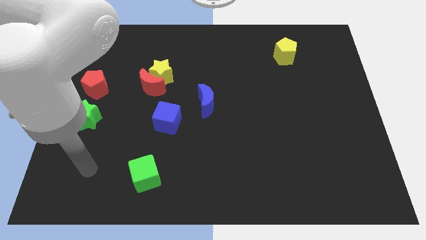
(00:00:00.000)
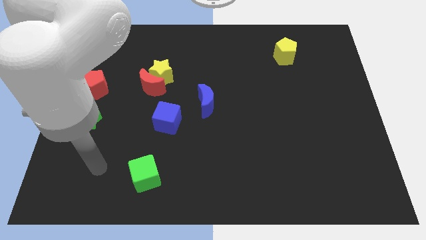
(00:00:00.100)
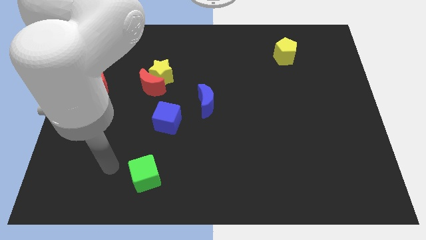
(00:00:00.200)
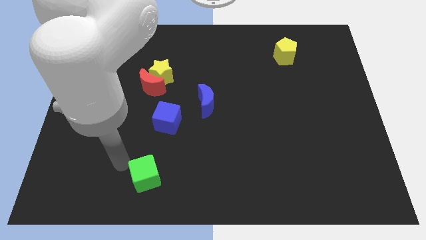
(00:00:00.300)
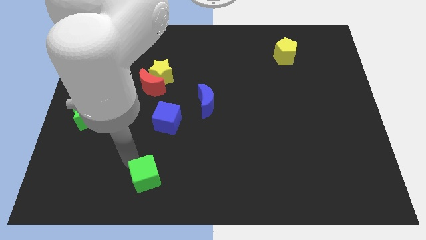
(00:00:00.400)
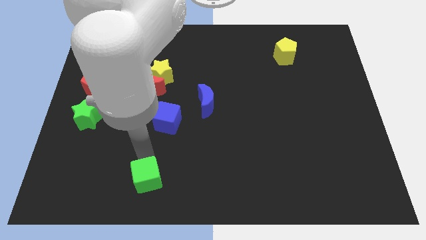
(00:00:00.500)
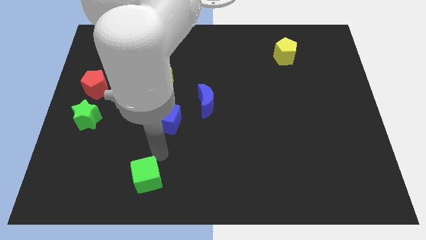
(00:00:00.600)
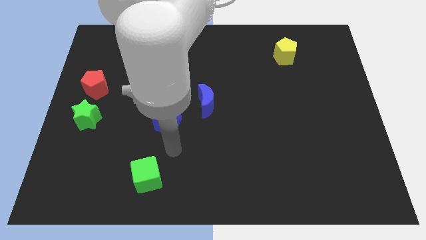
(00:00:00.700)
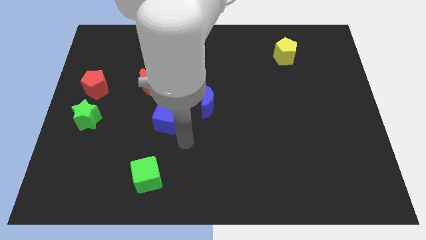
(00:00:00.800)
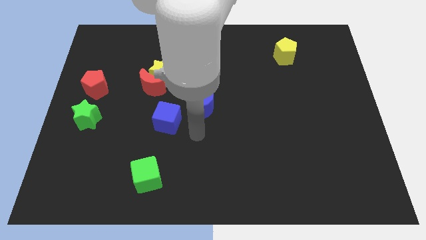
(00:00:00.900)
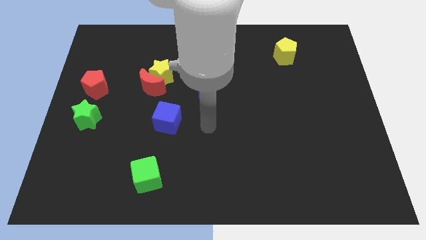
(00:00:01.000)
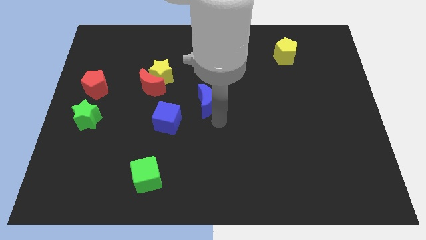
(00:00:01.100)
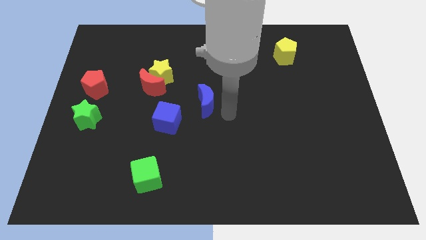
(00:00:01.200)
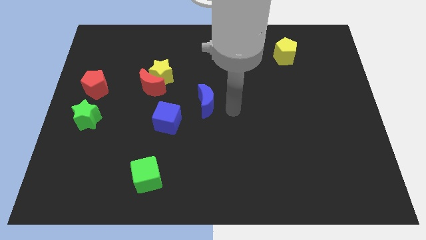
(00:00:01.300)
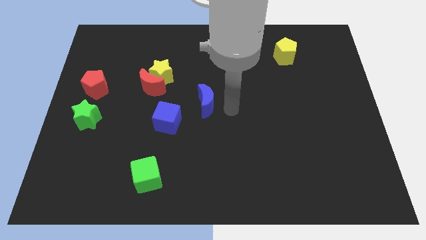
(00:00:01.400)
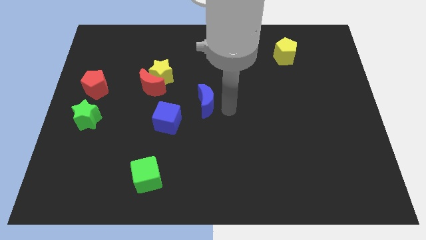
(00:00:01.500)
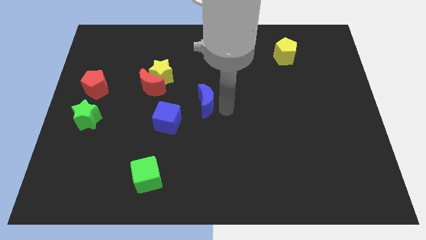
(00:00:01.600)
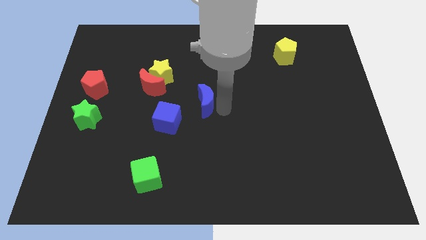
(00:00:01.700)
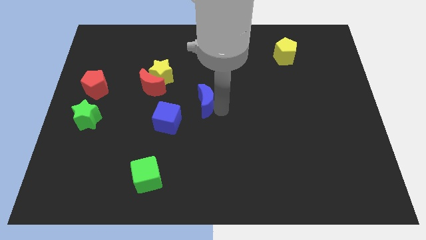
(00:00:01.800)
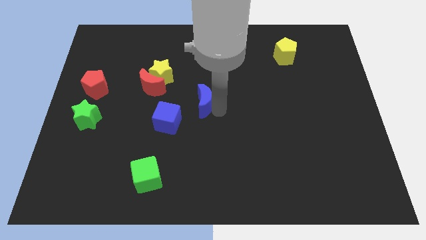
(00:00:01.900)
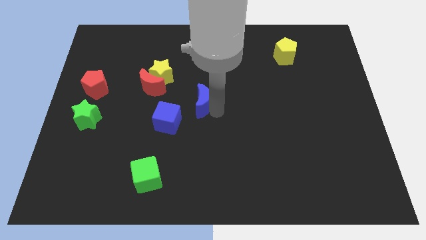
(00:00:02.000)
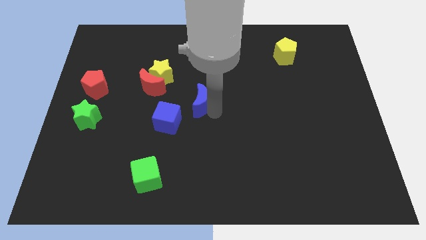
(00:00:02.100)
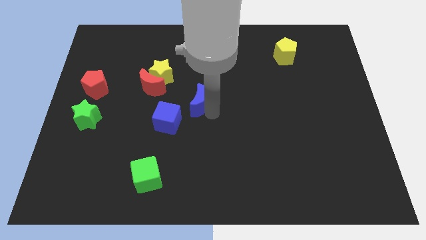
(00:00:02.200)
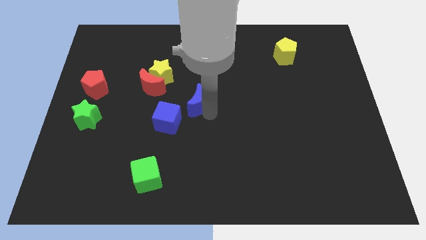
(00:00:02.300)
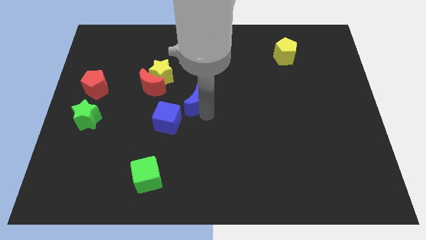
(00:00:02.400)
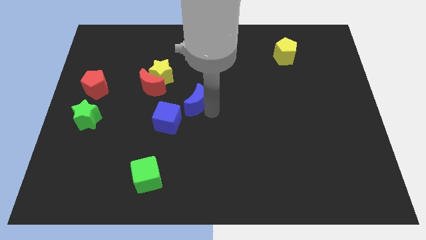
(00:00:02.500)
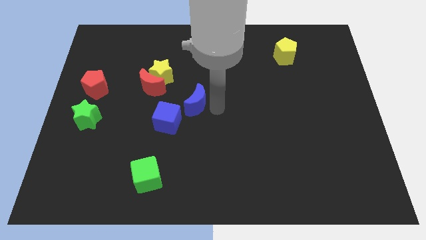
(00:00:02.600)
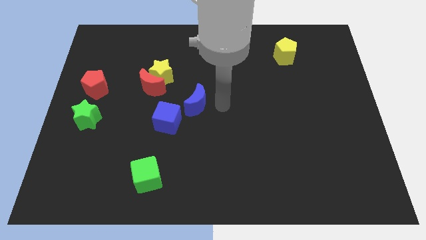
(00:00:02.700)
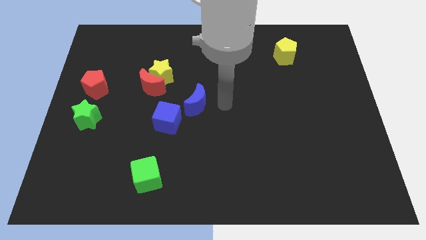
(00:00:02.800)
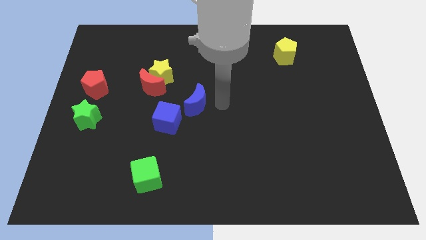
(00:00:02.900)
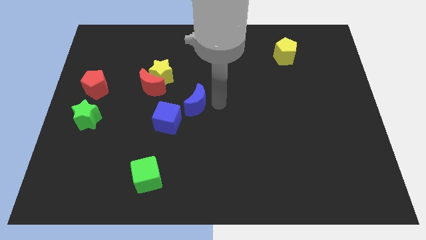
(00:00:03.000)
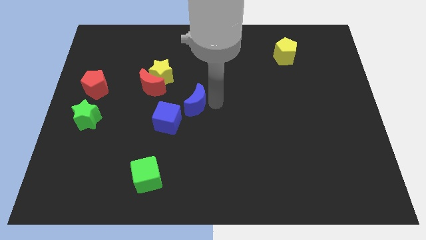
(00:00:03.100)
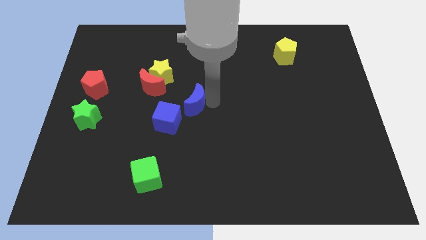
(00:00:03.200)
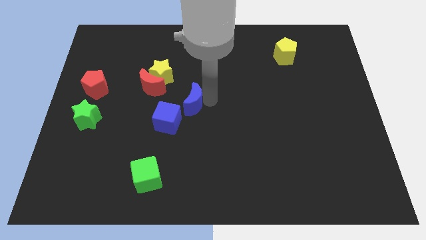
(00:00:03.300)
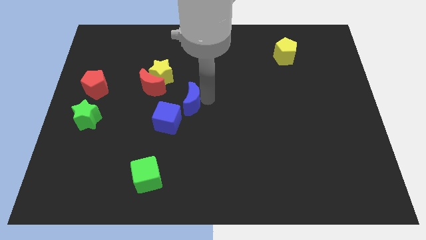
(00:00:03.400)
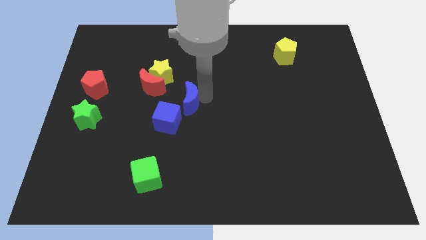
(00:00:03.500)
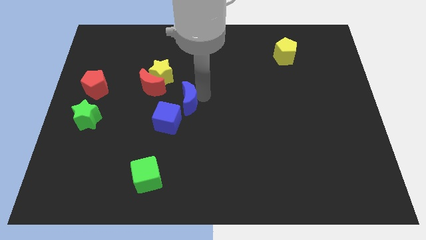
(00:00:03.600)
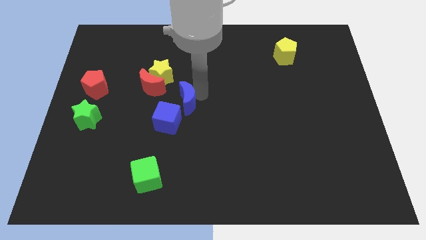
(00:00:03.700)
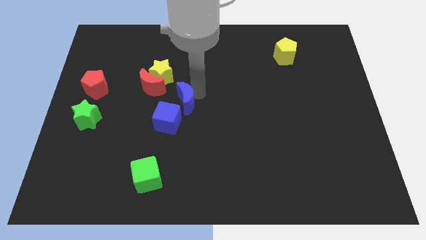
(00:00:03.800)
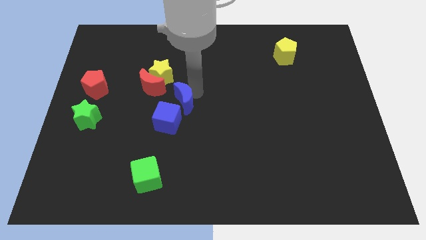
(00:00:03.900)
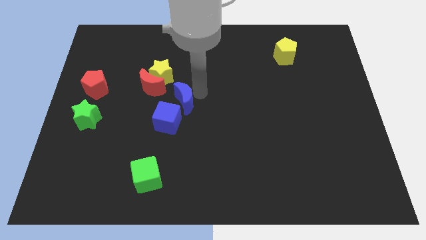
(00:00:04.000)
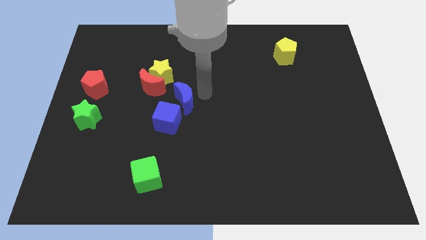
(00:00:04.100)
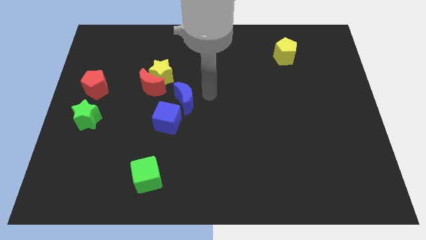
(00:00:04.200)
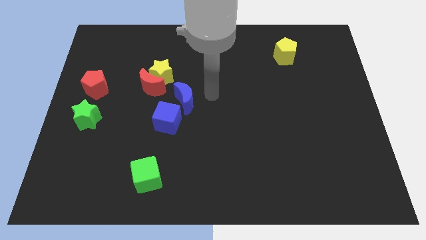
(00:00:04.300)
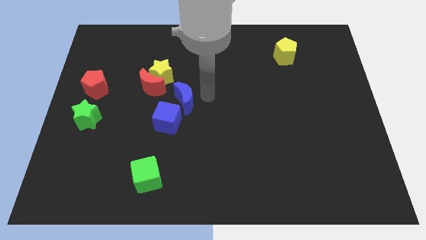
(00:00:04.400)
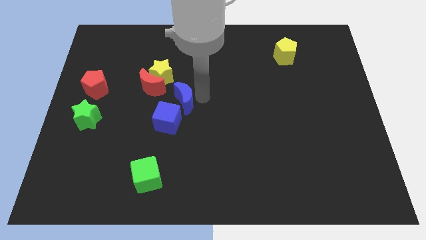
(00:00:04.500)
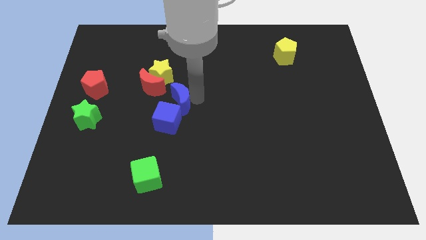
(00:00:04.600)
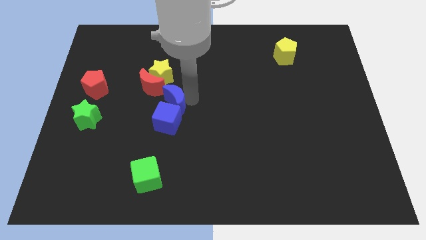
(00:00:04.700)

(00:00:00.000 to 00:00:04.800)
slightly move the blue moon left

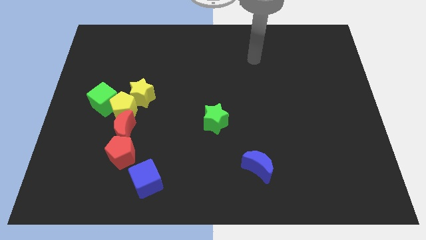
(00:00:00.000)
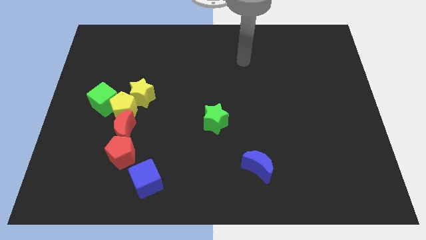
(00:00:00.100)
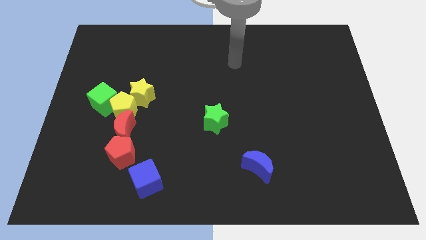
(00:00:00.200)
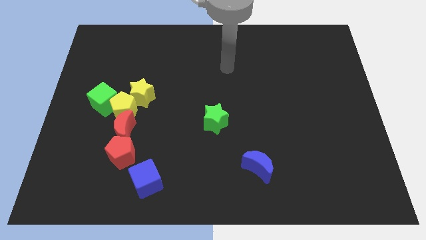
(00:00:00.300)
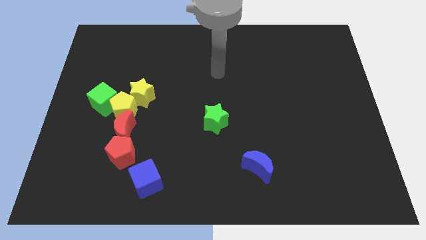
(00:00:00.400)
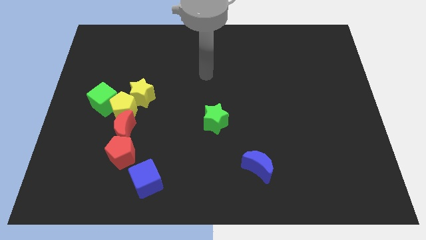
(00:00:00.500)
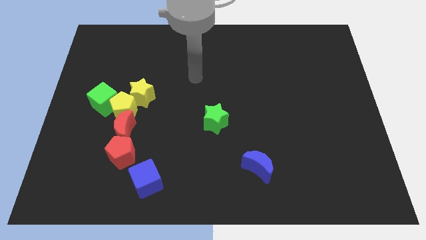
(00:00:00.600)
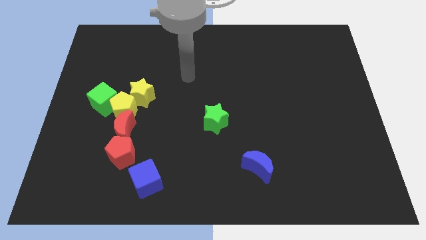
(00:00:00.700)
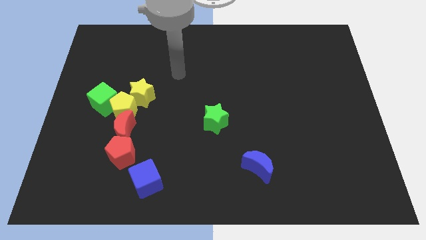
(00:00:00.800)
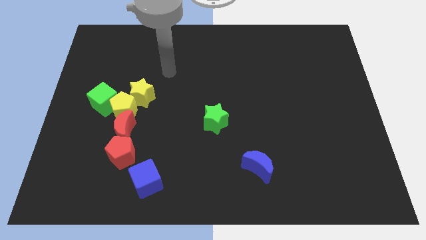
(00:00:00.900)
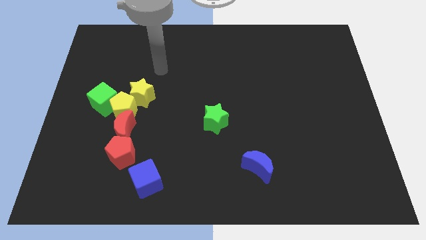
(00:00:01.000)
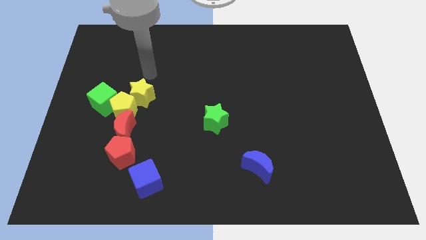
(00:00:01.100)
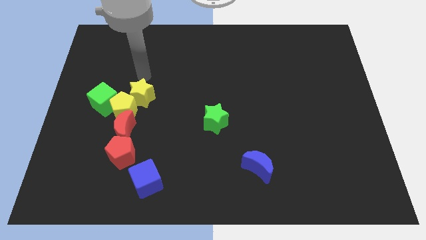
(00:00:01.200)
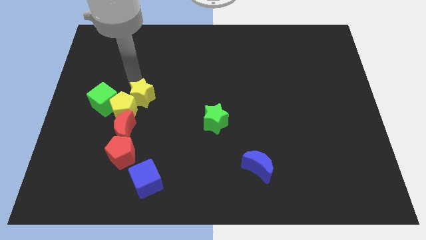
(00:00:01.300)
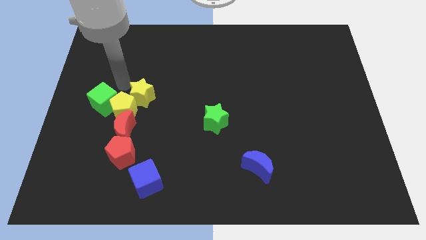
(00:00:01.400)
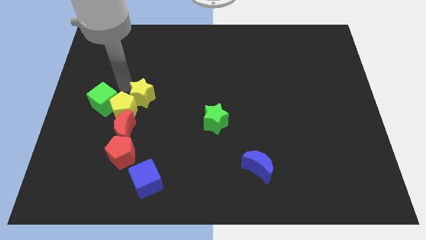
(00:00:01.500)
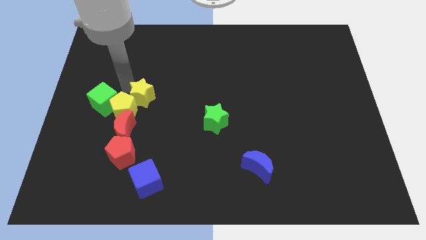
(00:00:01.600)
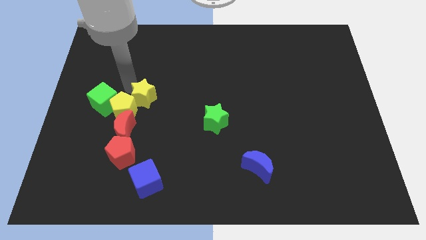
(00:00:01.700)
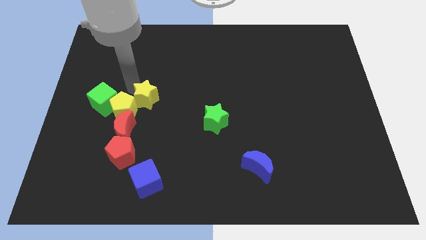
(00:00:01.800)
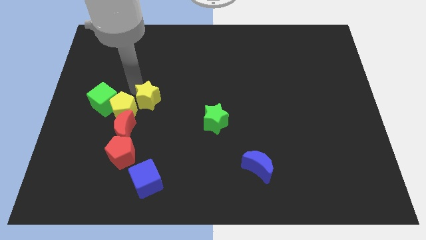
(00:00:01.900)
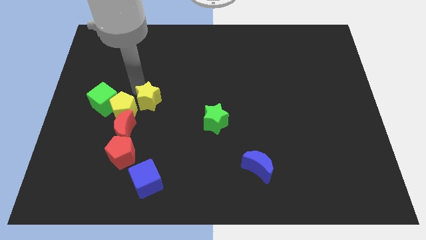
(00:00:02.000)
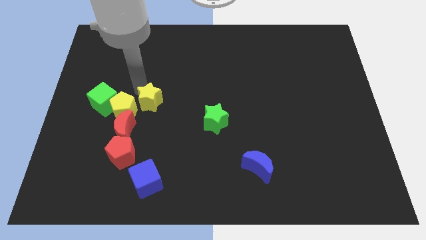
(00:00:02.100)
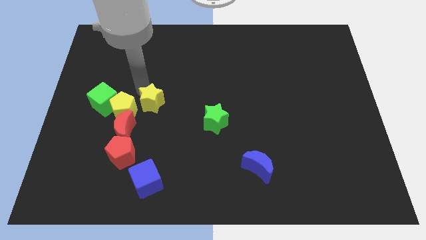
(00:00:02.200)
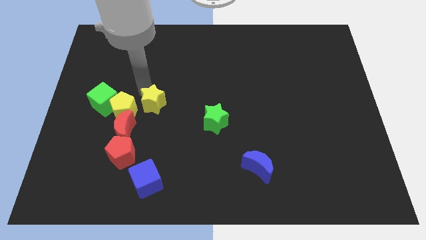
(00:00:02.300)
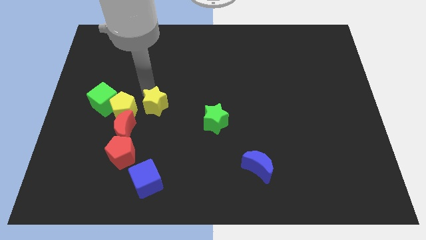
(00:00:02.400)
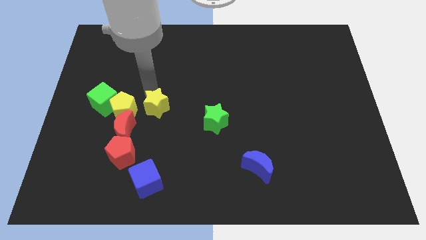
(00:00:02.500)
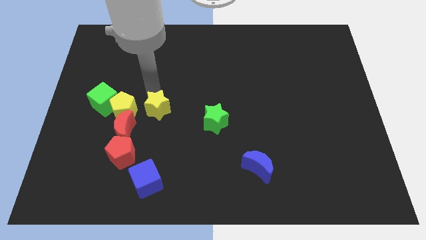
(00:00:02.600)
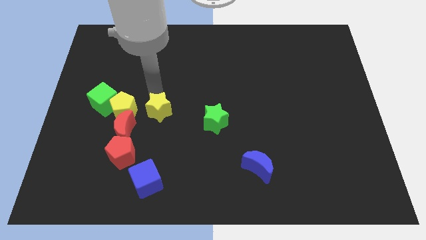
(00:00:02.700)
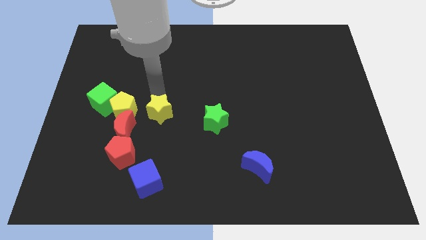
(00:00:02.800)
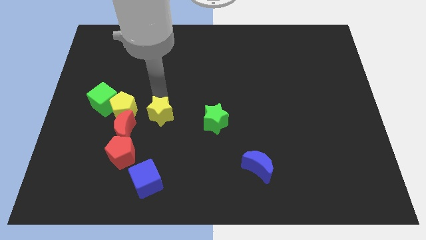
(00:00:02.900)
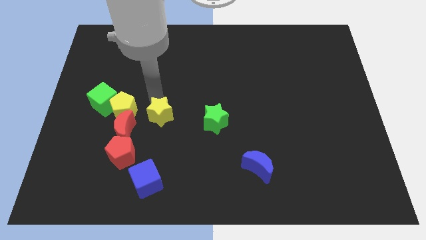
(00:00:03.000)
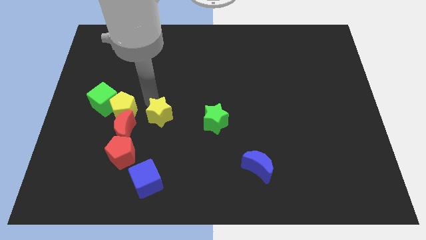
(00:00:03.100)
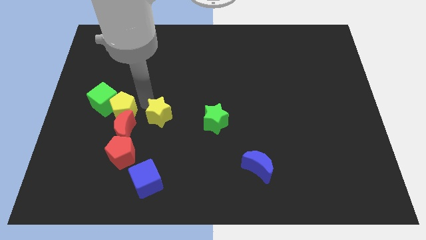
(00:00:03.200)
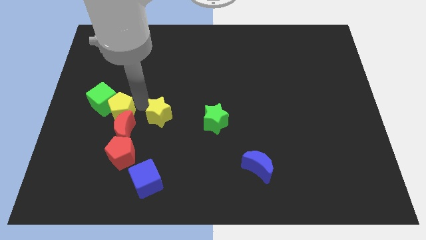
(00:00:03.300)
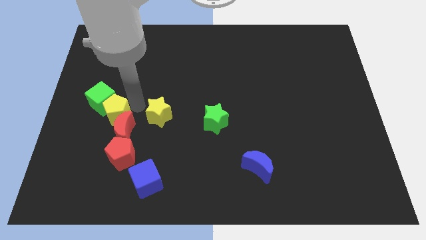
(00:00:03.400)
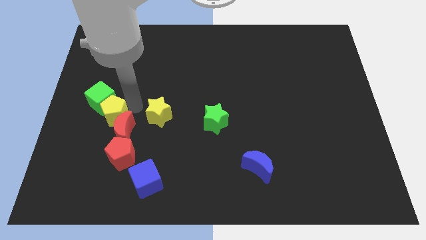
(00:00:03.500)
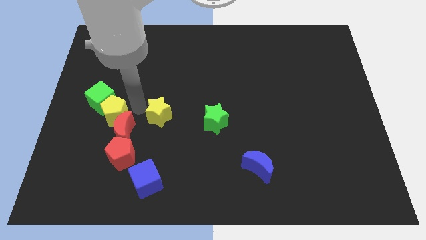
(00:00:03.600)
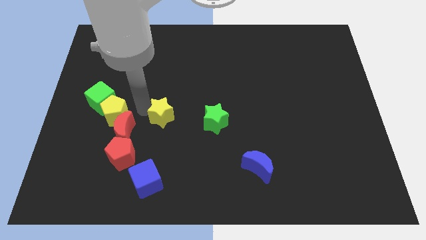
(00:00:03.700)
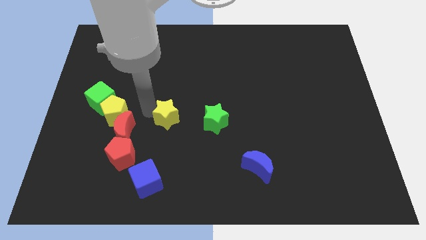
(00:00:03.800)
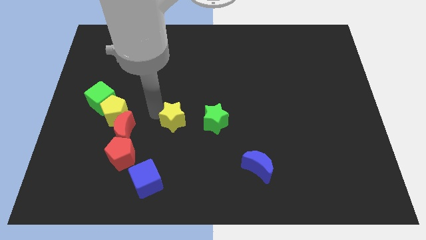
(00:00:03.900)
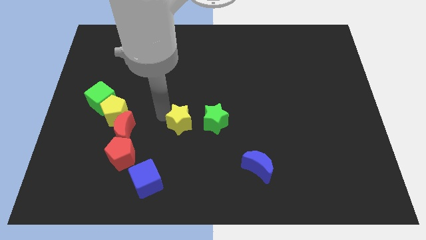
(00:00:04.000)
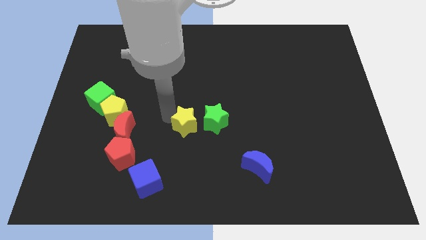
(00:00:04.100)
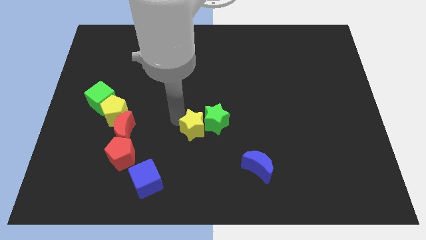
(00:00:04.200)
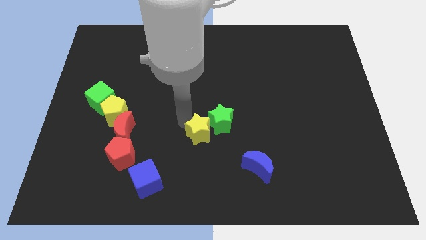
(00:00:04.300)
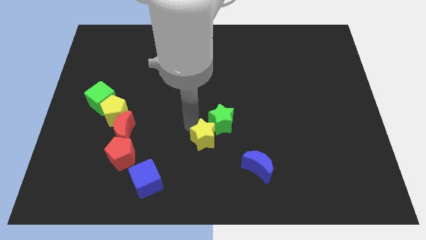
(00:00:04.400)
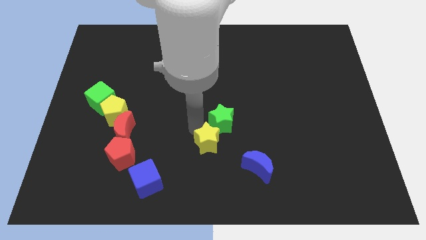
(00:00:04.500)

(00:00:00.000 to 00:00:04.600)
slide the yellow star downwards and right
